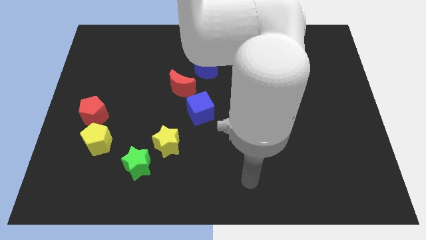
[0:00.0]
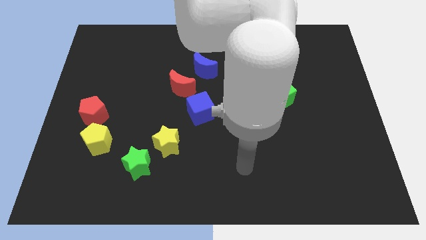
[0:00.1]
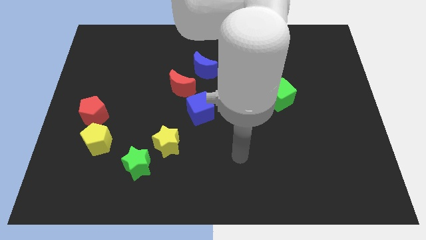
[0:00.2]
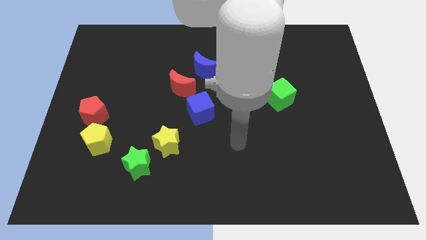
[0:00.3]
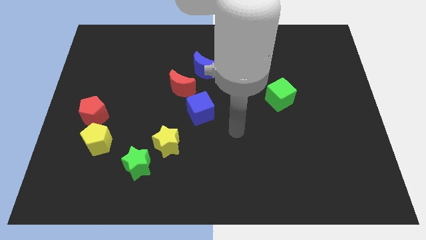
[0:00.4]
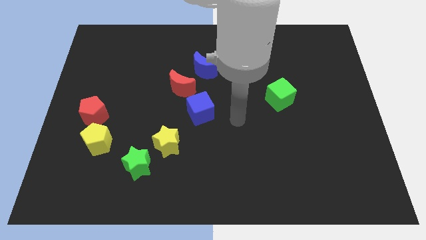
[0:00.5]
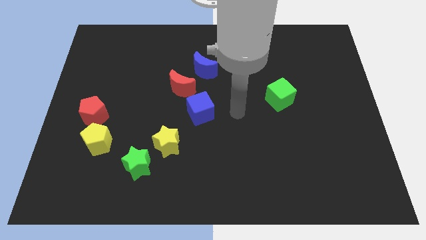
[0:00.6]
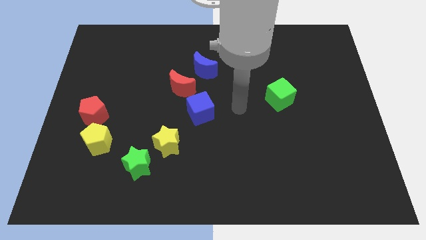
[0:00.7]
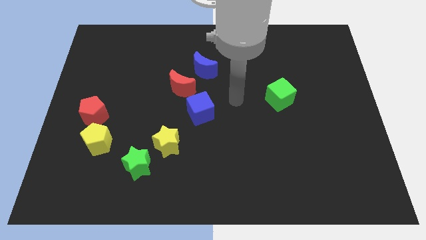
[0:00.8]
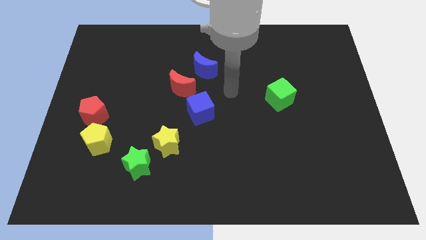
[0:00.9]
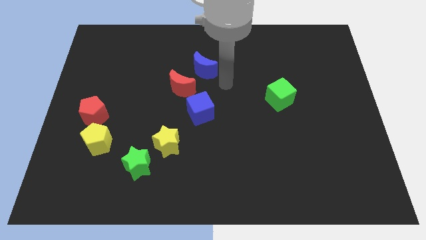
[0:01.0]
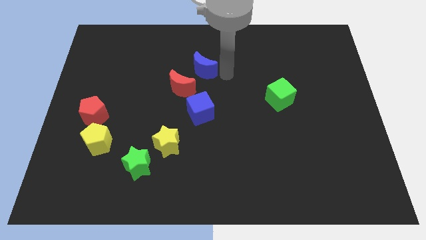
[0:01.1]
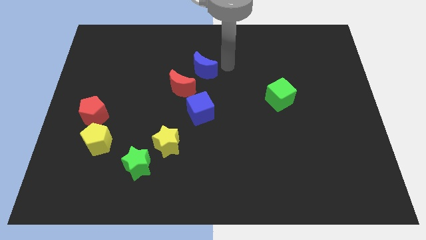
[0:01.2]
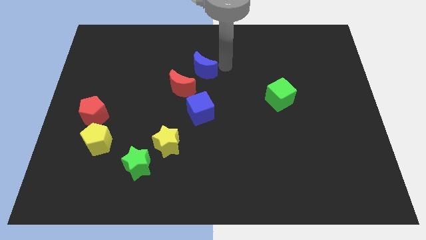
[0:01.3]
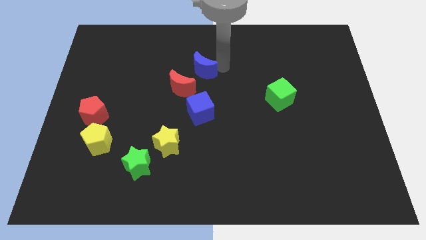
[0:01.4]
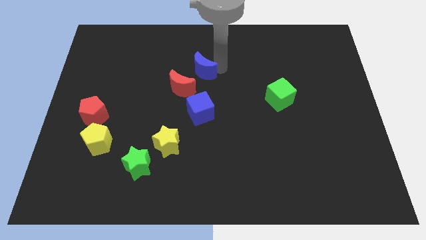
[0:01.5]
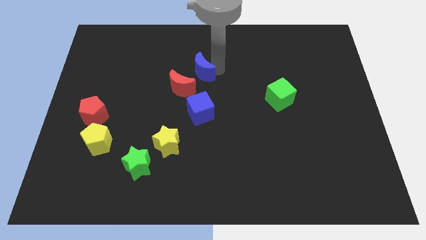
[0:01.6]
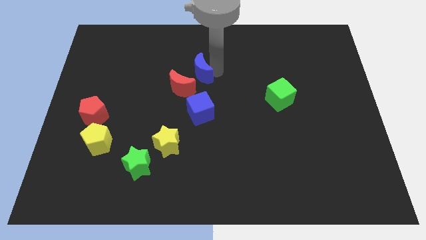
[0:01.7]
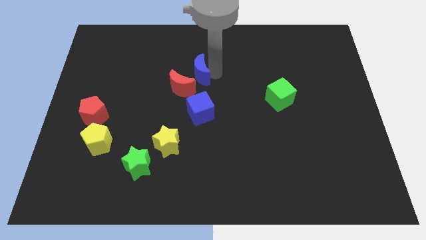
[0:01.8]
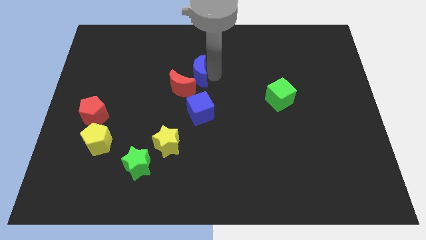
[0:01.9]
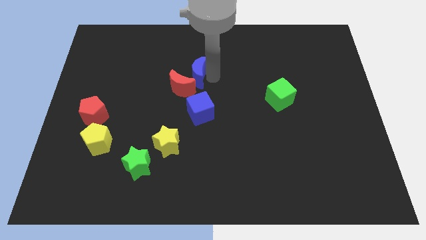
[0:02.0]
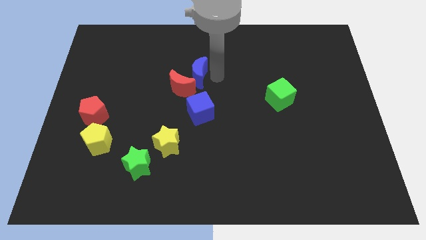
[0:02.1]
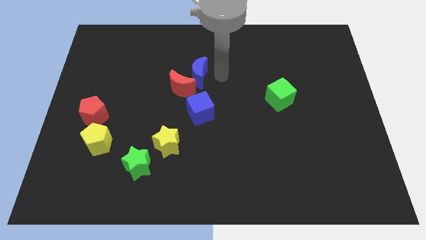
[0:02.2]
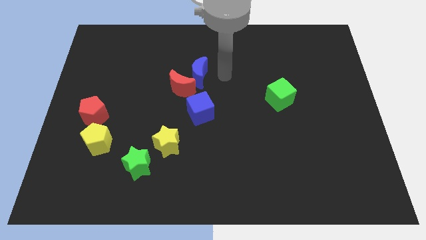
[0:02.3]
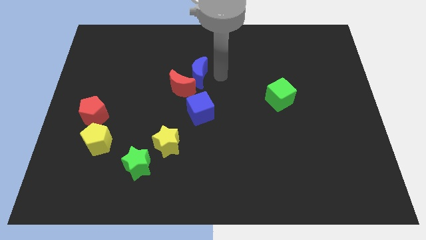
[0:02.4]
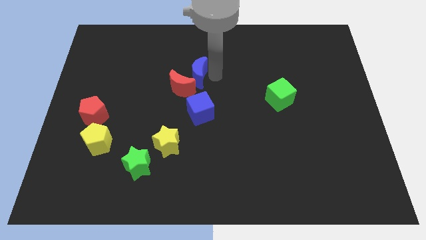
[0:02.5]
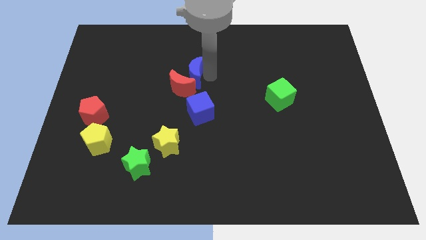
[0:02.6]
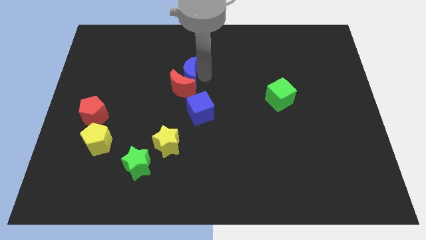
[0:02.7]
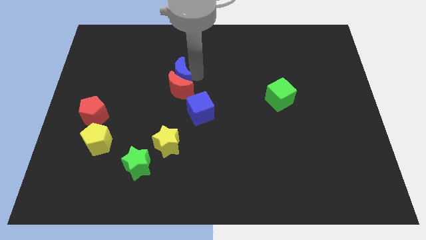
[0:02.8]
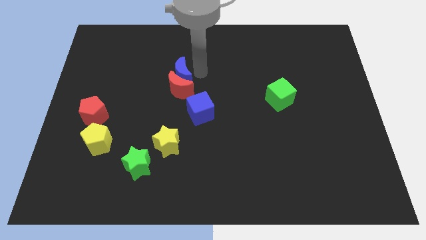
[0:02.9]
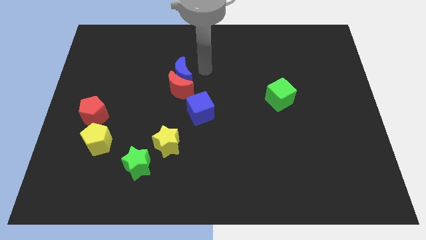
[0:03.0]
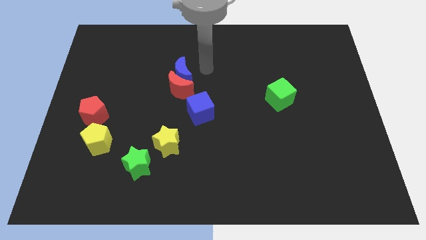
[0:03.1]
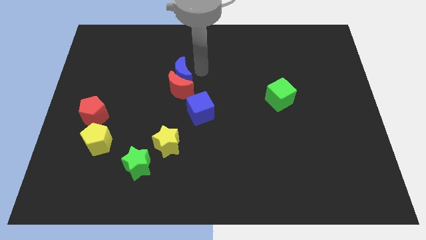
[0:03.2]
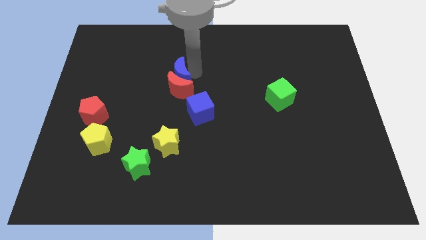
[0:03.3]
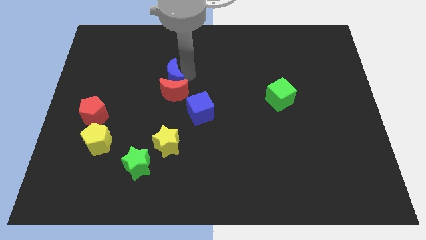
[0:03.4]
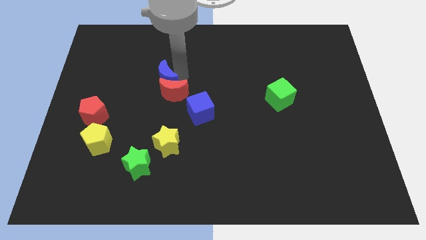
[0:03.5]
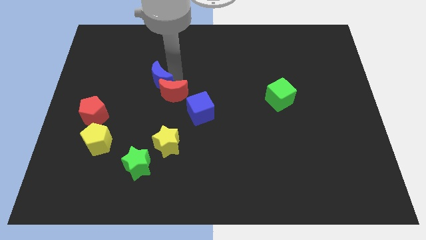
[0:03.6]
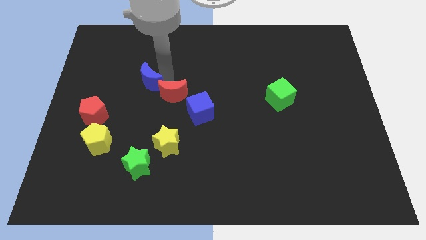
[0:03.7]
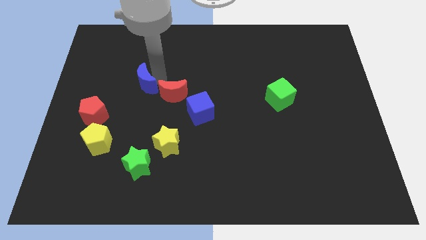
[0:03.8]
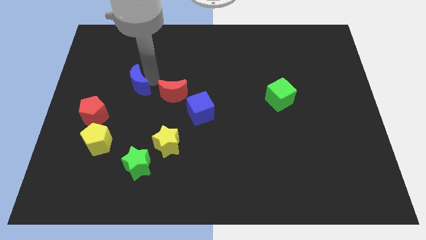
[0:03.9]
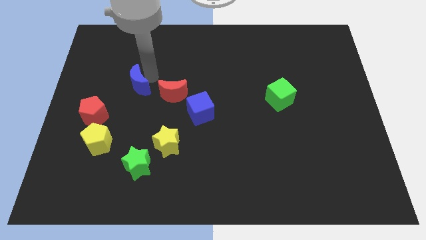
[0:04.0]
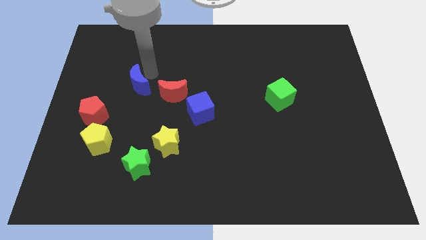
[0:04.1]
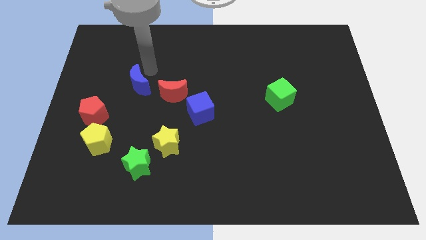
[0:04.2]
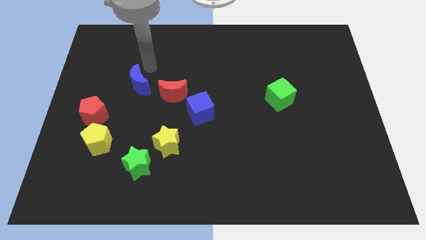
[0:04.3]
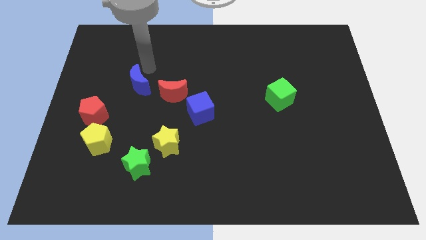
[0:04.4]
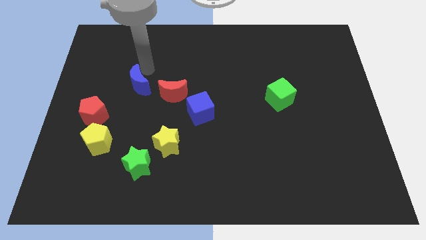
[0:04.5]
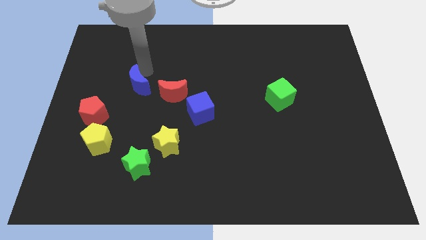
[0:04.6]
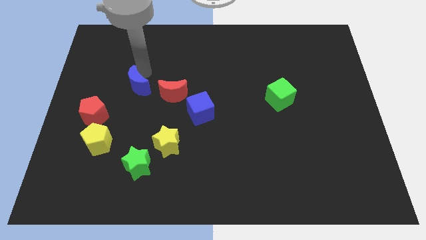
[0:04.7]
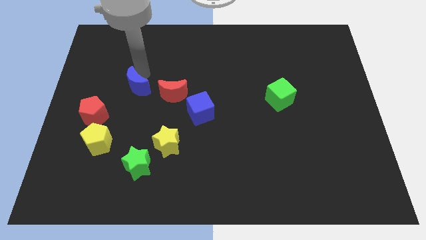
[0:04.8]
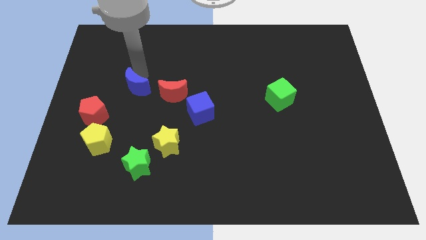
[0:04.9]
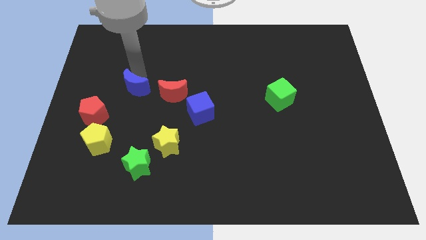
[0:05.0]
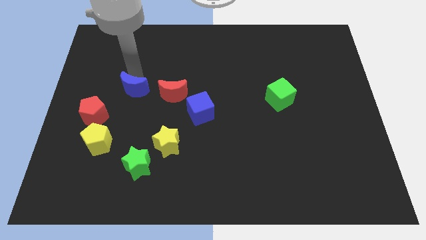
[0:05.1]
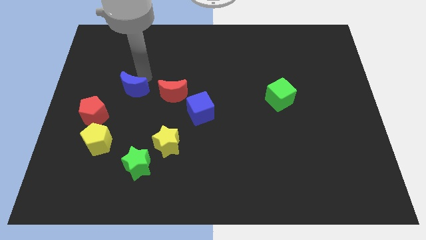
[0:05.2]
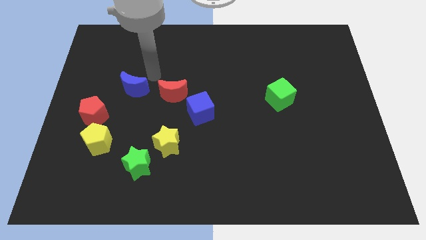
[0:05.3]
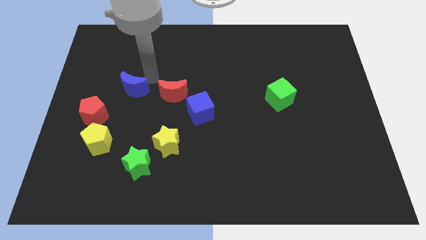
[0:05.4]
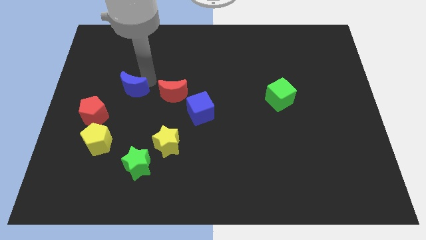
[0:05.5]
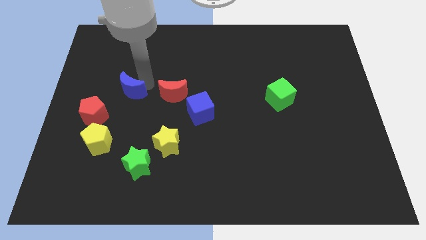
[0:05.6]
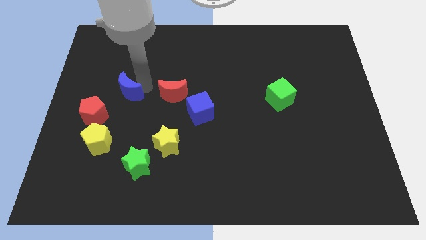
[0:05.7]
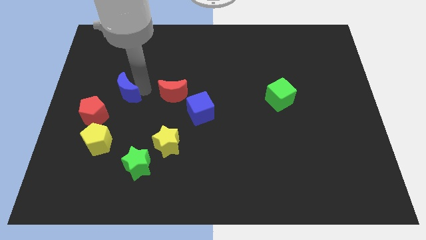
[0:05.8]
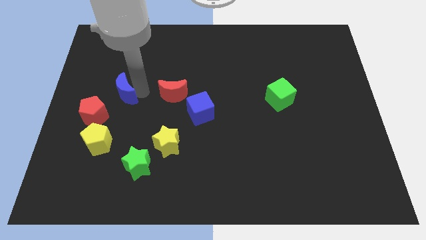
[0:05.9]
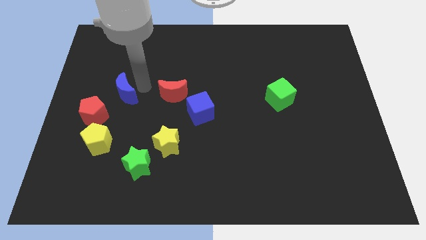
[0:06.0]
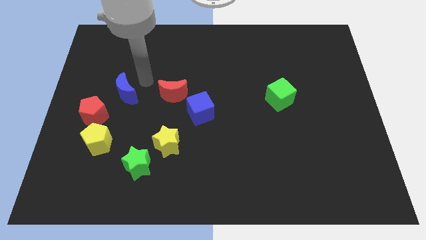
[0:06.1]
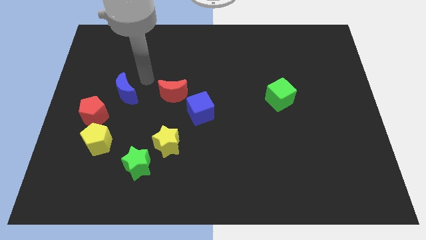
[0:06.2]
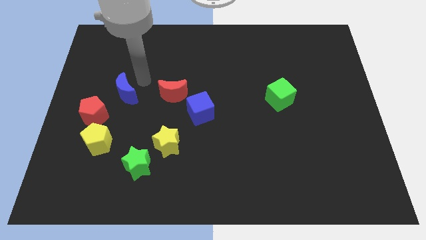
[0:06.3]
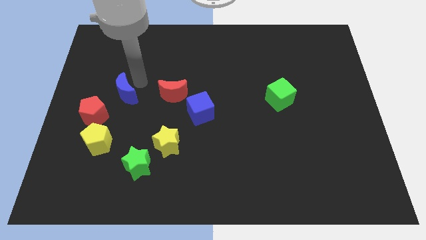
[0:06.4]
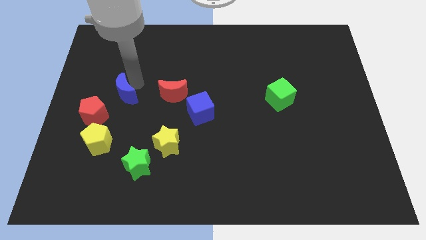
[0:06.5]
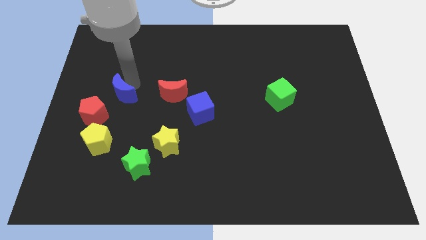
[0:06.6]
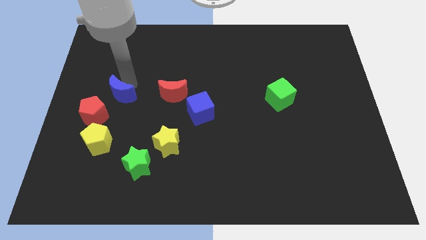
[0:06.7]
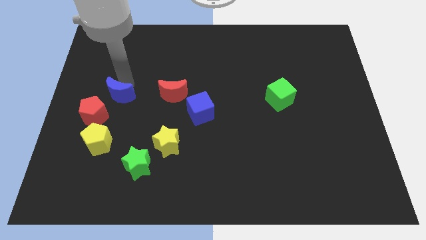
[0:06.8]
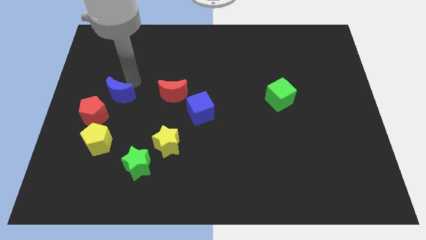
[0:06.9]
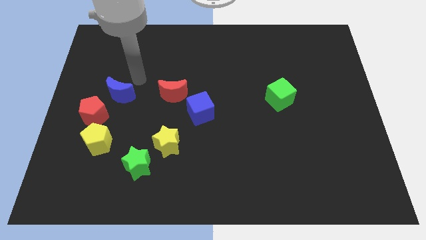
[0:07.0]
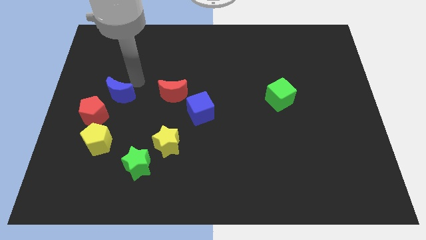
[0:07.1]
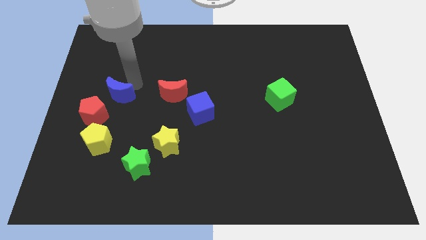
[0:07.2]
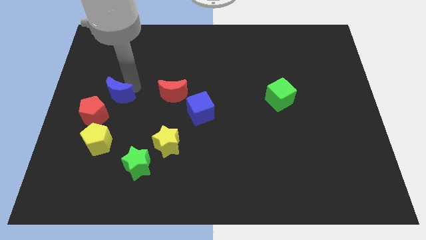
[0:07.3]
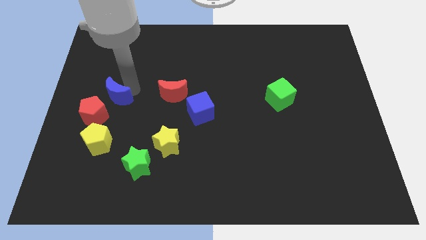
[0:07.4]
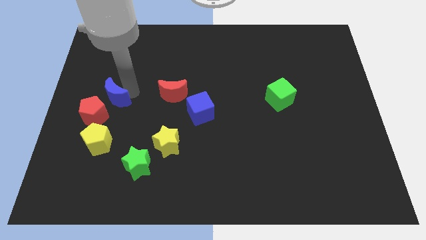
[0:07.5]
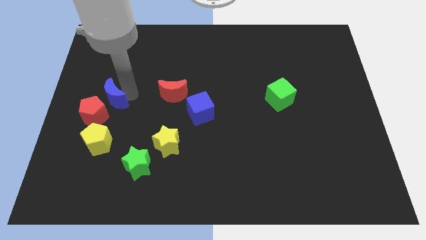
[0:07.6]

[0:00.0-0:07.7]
slide the blue moon next to the red pentagon
